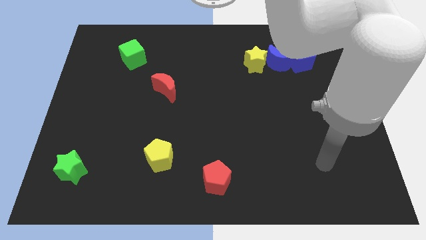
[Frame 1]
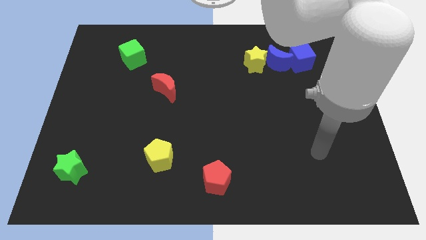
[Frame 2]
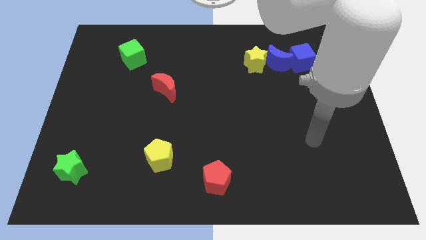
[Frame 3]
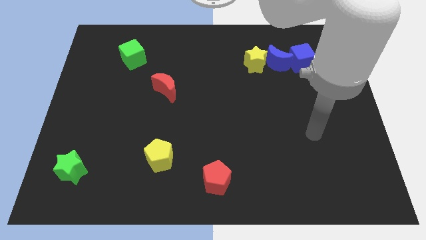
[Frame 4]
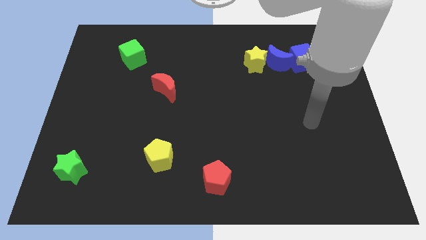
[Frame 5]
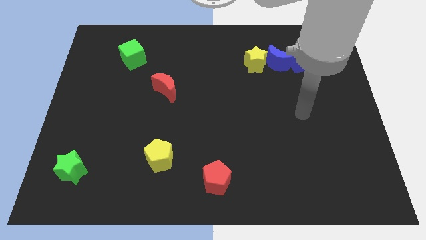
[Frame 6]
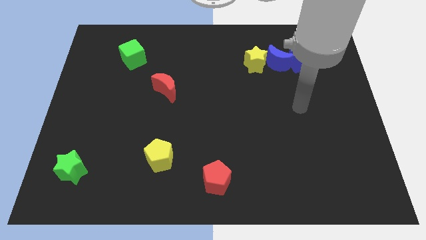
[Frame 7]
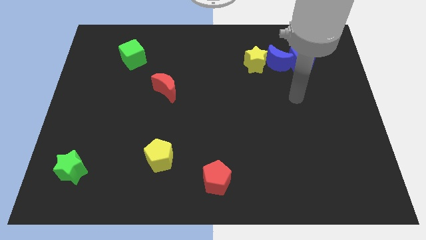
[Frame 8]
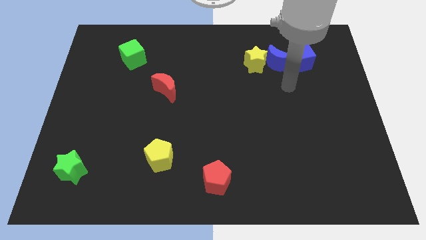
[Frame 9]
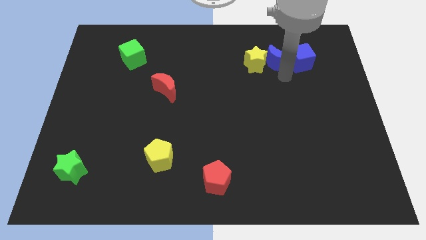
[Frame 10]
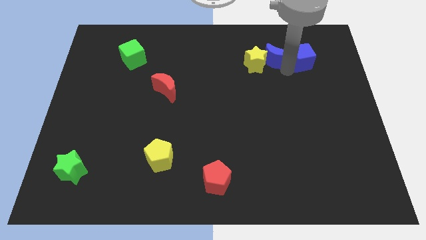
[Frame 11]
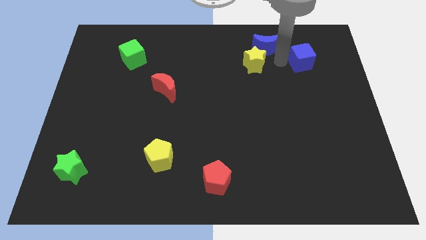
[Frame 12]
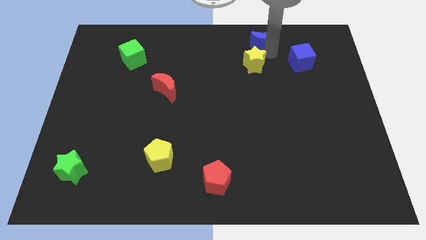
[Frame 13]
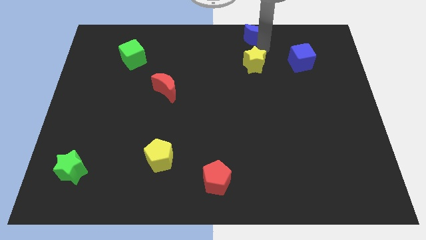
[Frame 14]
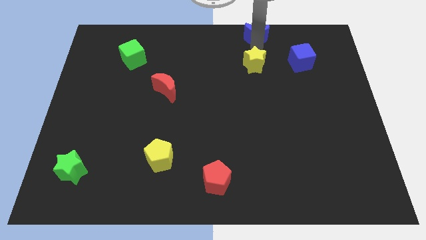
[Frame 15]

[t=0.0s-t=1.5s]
separate the yellow star from the blue moon

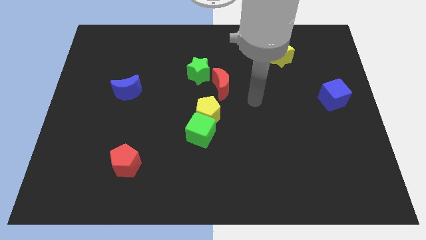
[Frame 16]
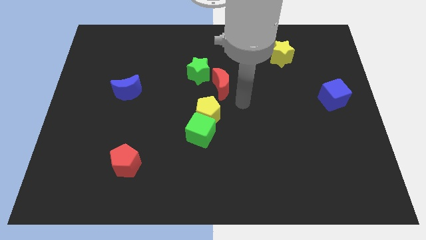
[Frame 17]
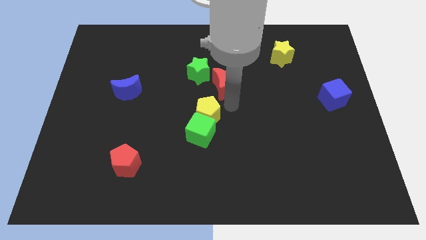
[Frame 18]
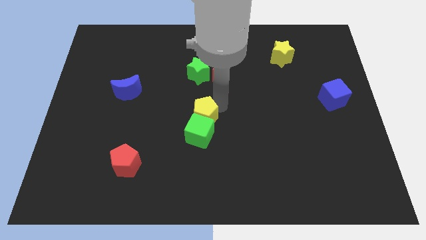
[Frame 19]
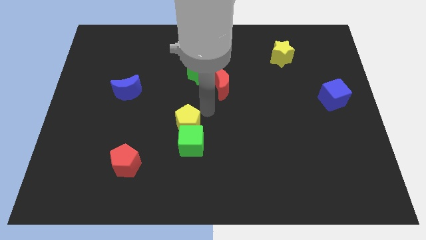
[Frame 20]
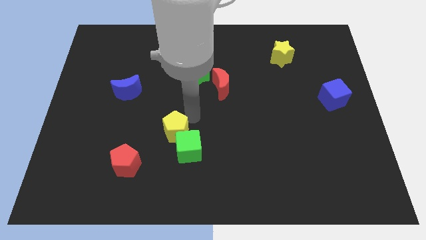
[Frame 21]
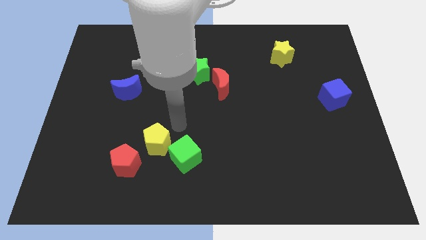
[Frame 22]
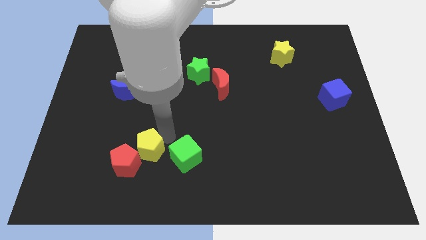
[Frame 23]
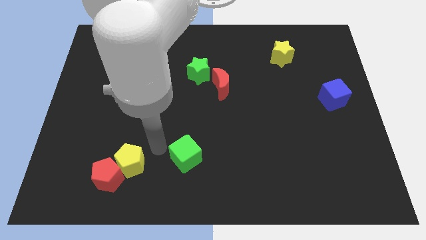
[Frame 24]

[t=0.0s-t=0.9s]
separate the green cube from the yellow pentagon

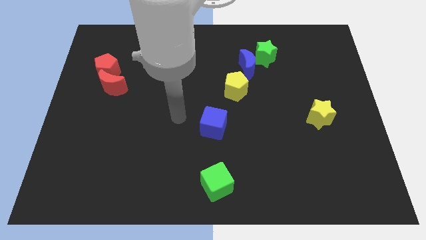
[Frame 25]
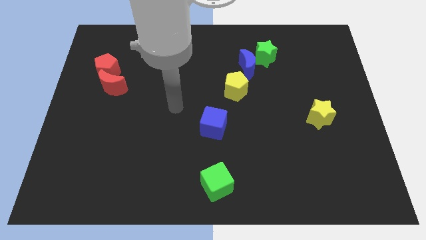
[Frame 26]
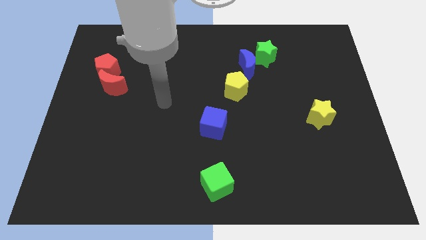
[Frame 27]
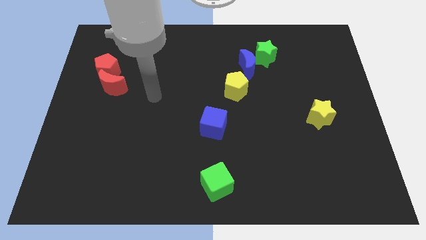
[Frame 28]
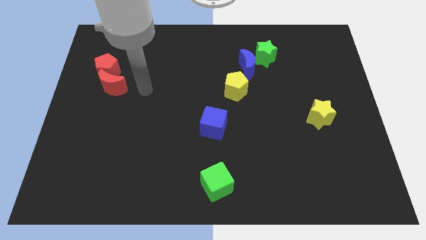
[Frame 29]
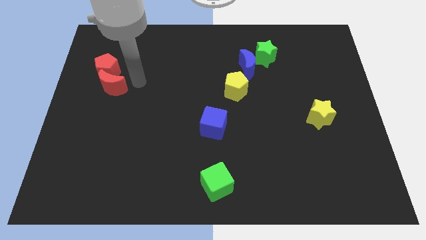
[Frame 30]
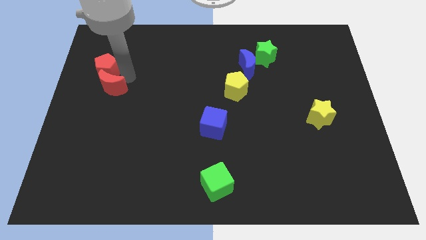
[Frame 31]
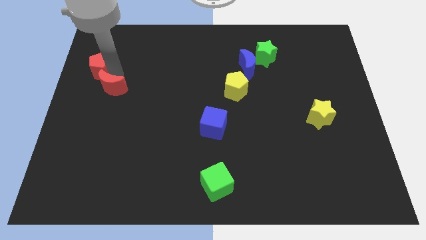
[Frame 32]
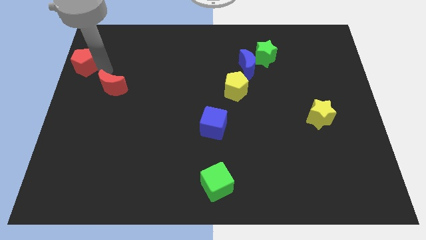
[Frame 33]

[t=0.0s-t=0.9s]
separate the red moon from the red pentagon

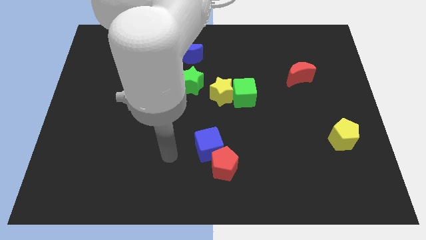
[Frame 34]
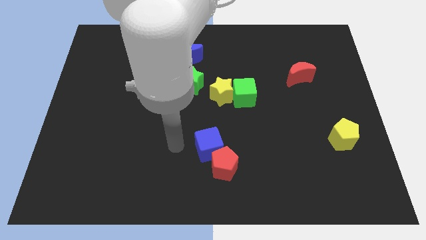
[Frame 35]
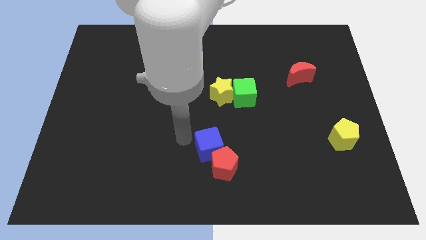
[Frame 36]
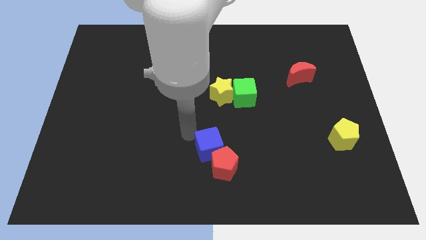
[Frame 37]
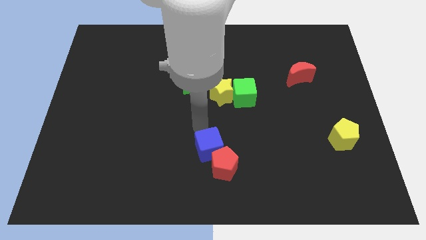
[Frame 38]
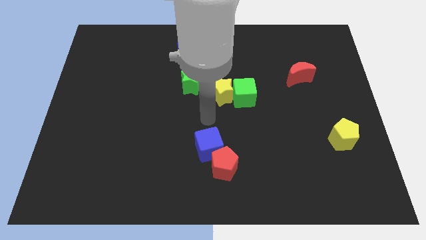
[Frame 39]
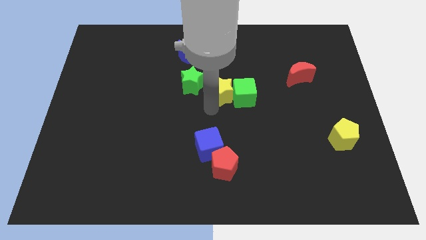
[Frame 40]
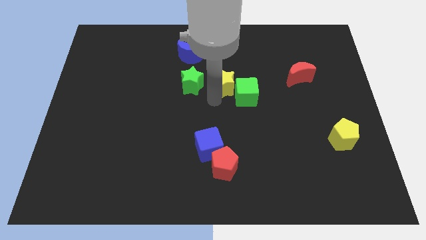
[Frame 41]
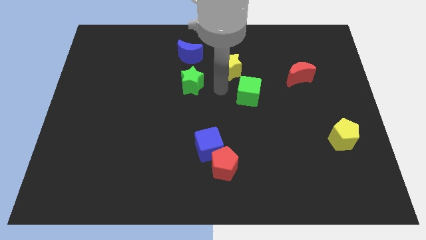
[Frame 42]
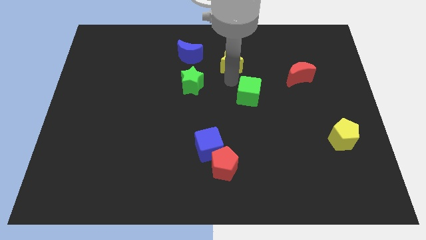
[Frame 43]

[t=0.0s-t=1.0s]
separate the green cube from the yellow star

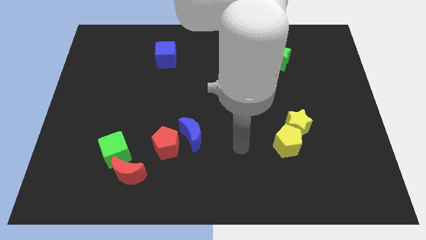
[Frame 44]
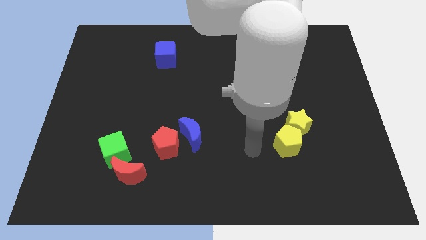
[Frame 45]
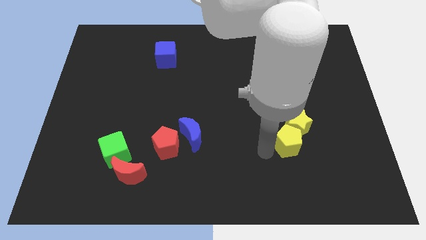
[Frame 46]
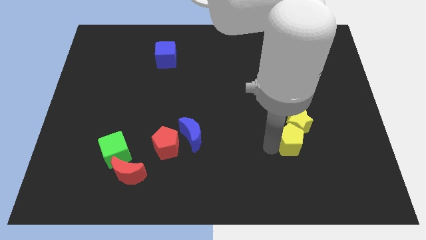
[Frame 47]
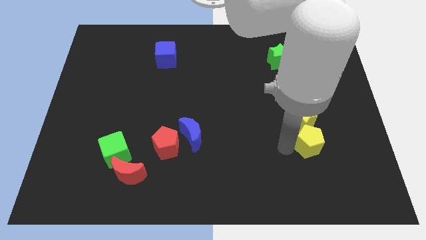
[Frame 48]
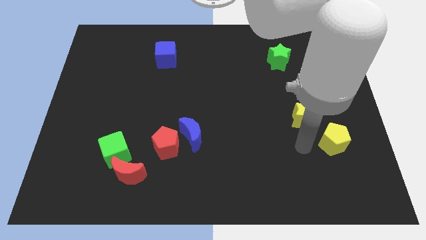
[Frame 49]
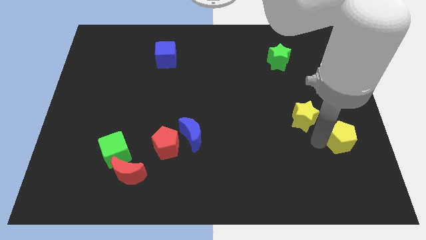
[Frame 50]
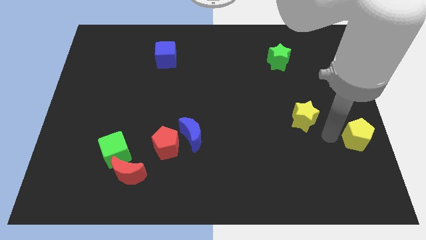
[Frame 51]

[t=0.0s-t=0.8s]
pull the yellow star apart from the yellow pentagon

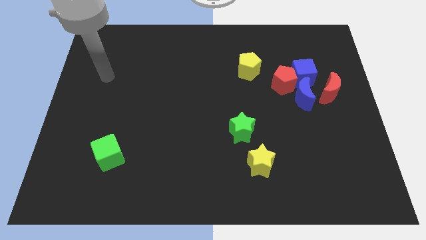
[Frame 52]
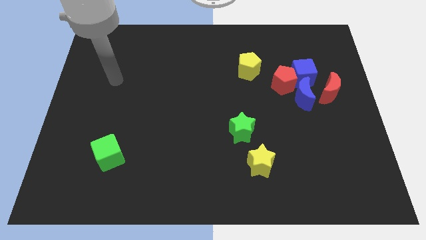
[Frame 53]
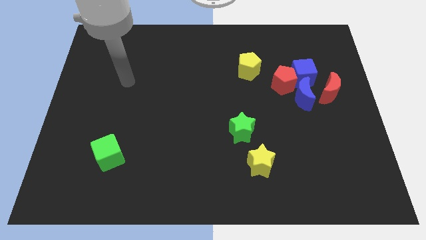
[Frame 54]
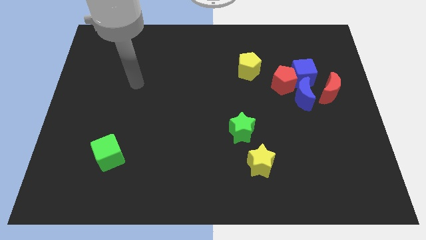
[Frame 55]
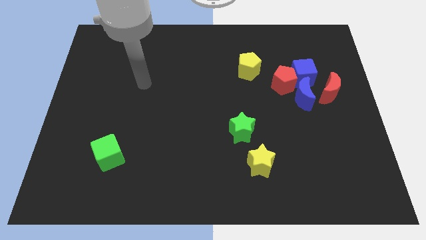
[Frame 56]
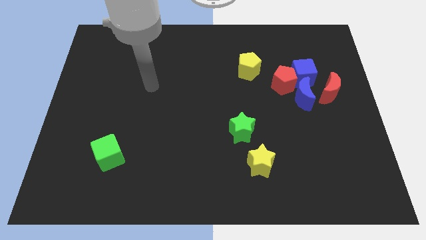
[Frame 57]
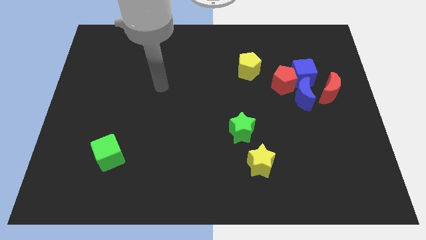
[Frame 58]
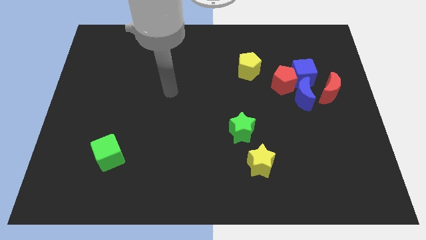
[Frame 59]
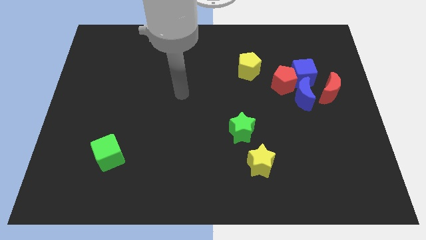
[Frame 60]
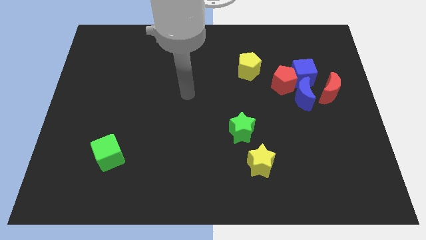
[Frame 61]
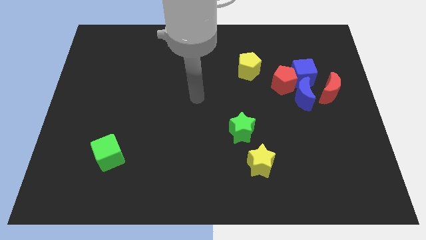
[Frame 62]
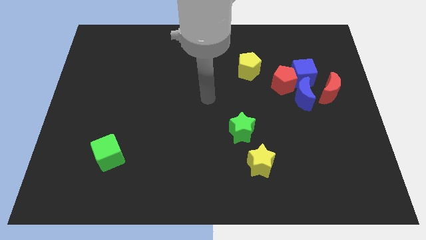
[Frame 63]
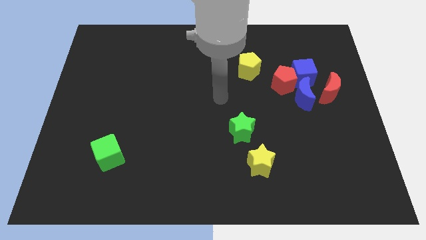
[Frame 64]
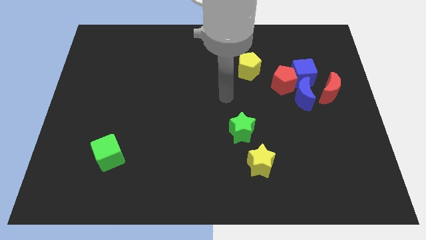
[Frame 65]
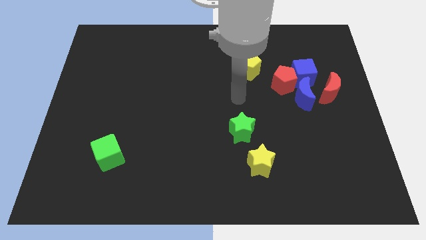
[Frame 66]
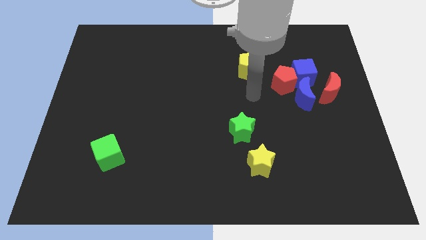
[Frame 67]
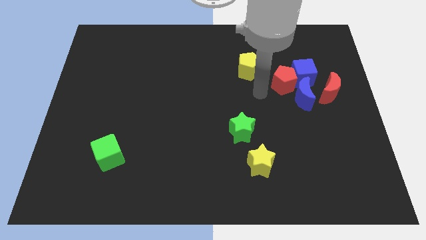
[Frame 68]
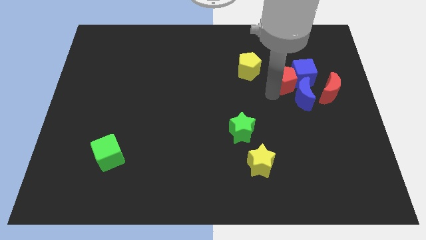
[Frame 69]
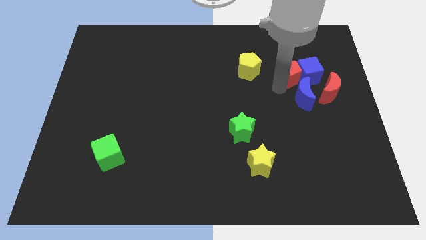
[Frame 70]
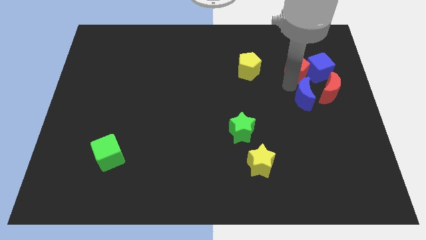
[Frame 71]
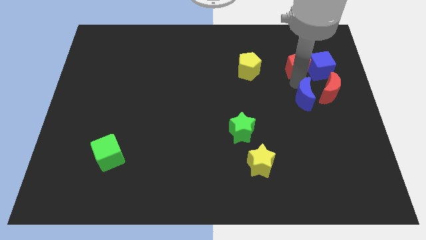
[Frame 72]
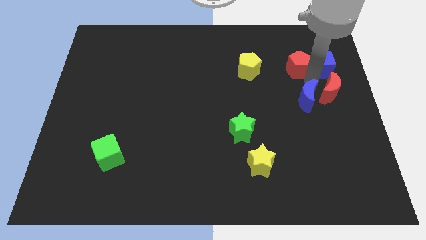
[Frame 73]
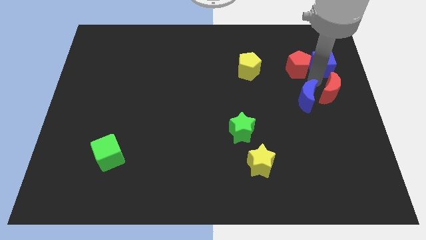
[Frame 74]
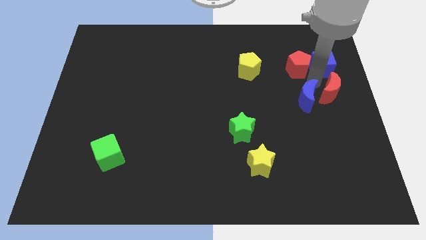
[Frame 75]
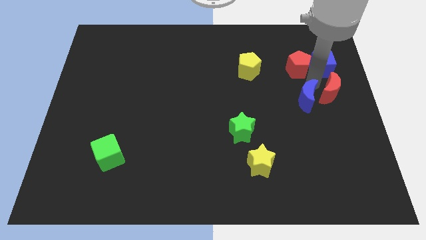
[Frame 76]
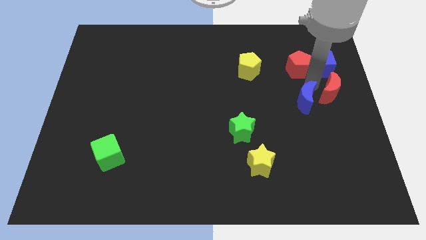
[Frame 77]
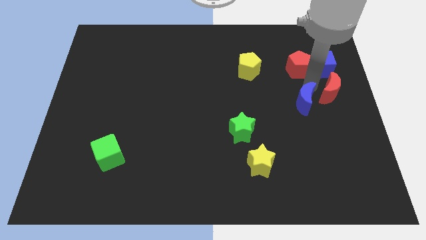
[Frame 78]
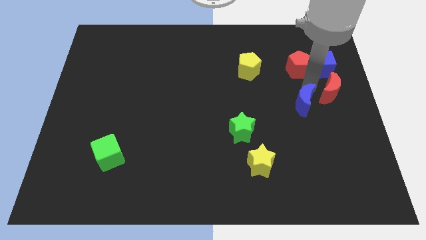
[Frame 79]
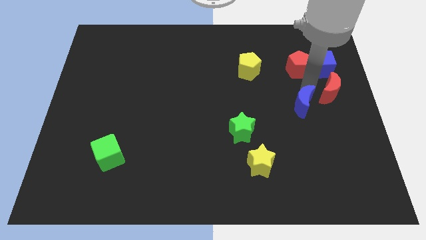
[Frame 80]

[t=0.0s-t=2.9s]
separate the blue moon from the red pentagon, blue cube, and red moon

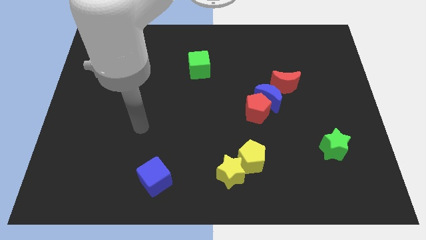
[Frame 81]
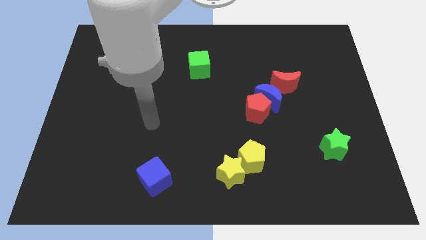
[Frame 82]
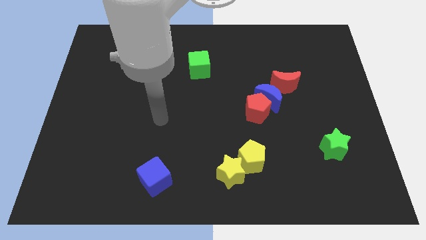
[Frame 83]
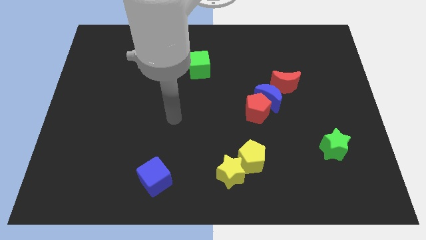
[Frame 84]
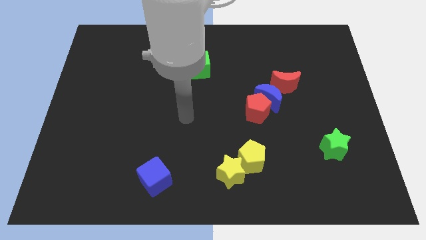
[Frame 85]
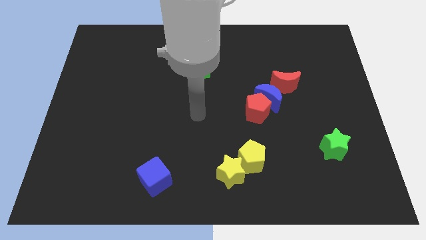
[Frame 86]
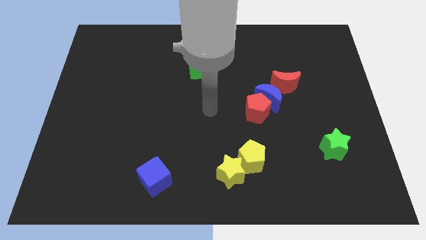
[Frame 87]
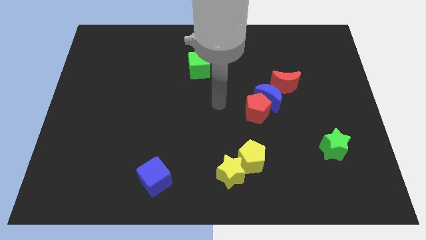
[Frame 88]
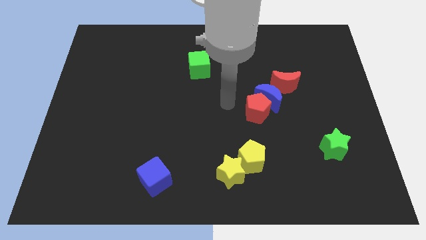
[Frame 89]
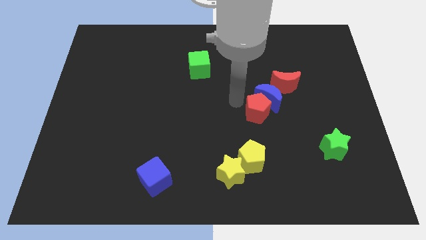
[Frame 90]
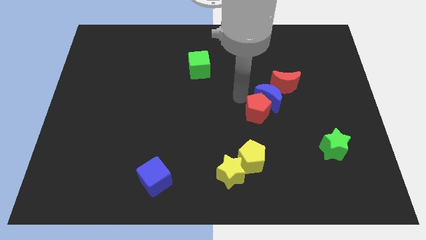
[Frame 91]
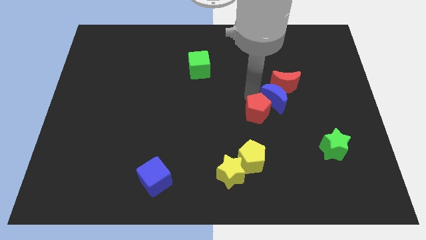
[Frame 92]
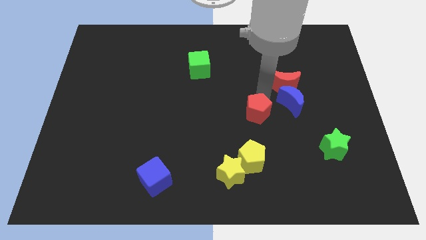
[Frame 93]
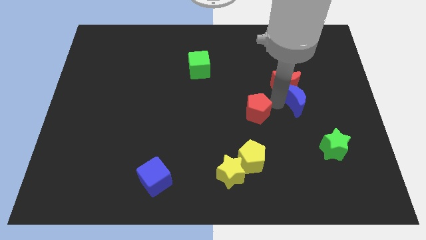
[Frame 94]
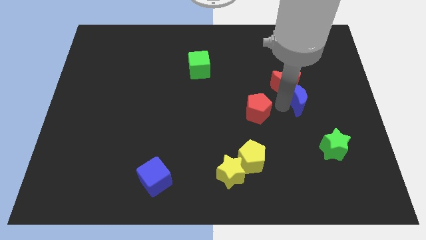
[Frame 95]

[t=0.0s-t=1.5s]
separate the red pentagon from the blue moon
